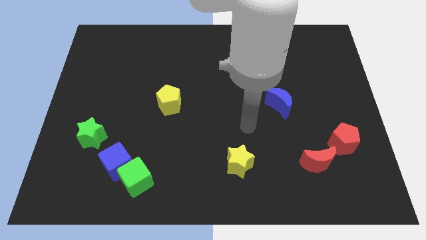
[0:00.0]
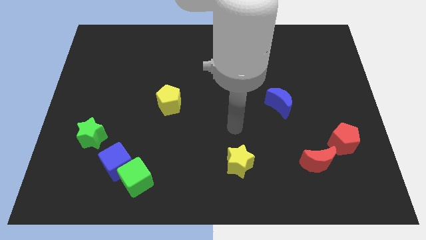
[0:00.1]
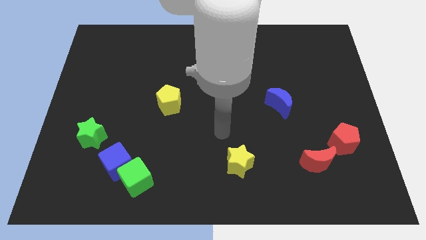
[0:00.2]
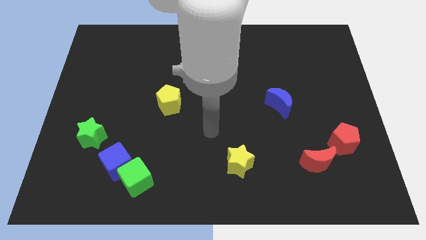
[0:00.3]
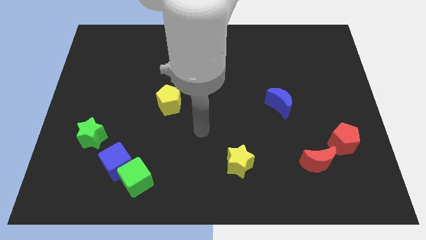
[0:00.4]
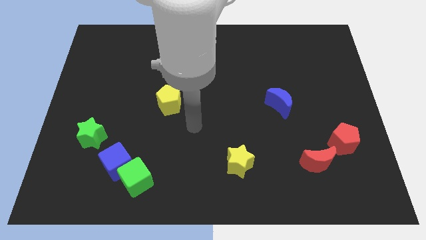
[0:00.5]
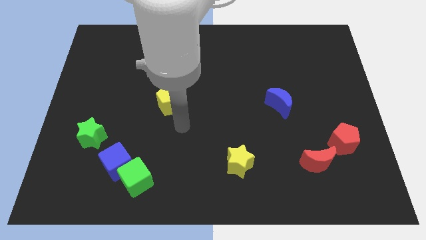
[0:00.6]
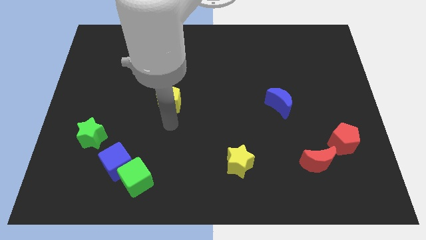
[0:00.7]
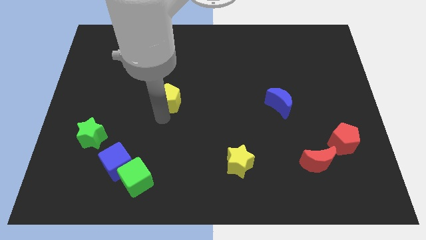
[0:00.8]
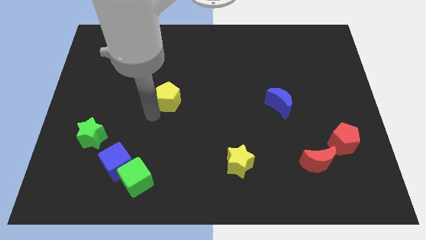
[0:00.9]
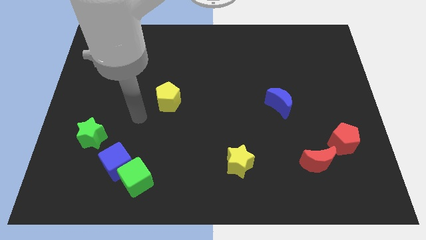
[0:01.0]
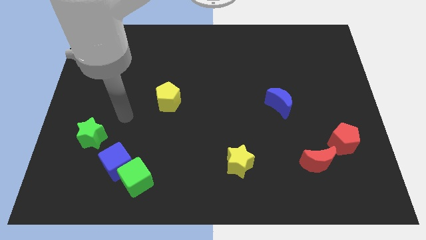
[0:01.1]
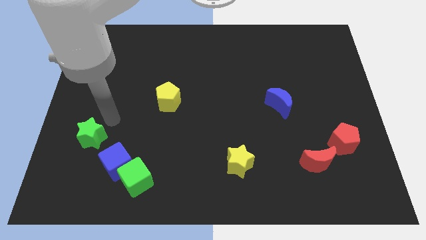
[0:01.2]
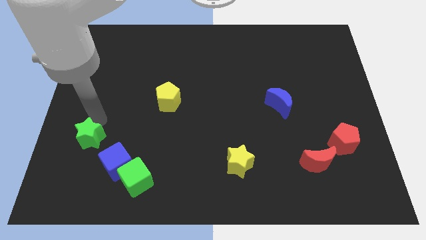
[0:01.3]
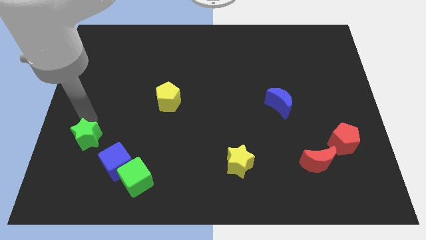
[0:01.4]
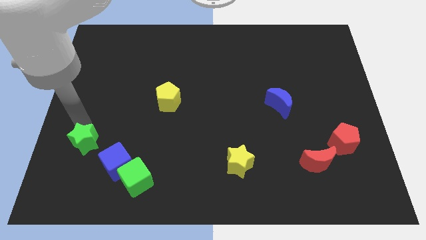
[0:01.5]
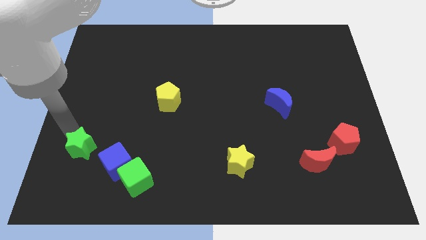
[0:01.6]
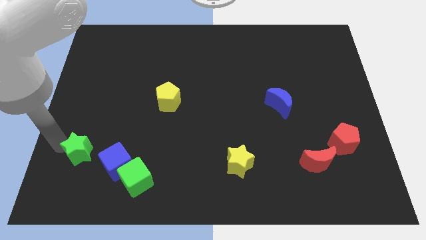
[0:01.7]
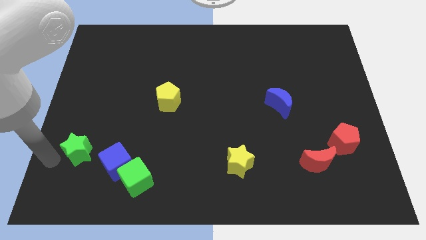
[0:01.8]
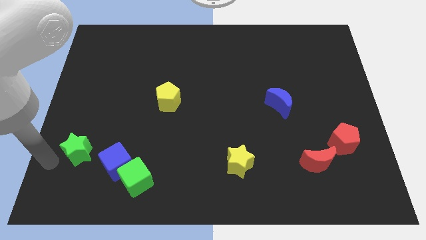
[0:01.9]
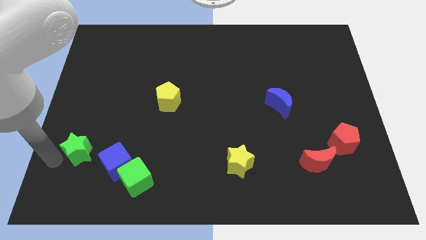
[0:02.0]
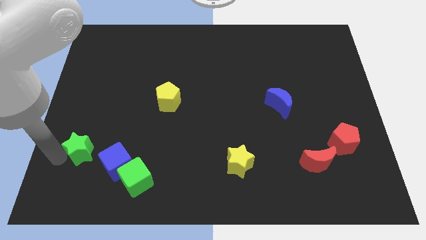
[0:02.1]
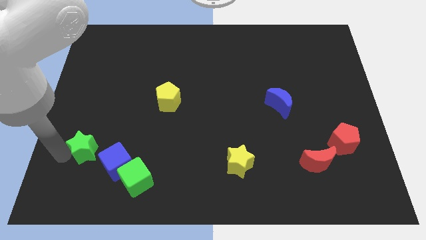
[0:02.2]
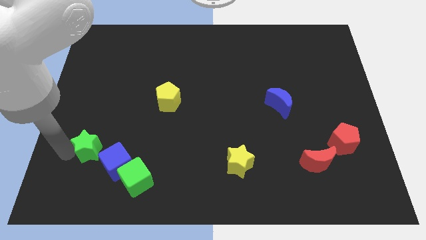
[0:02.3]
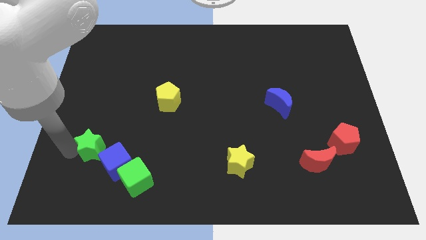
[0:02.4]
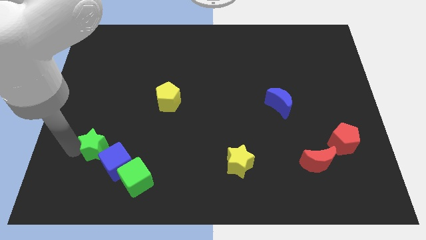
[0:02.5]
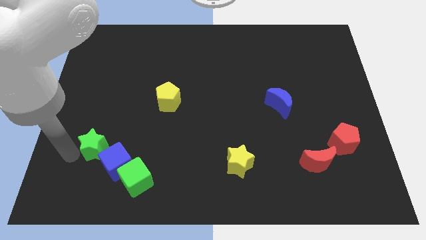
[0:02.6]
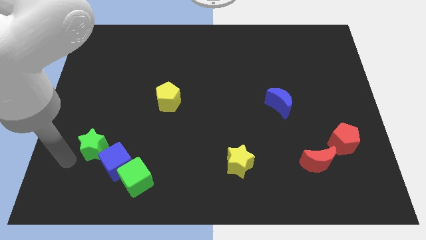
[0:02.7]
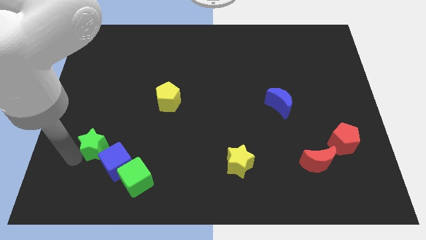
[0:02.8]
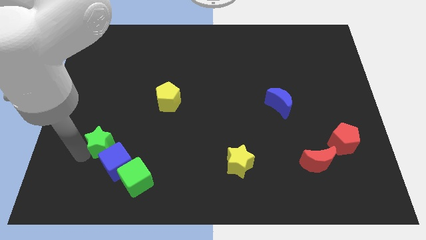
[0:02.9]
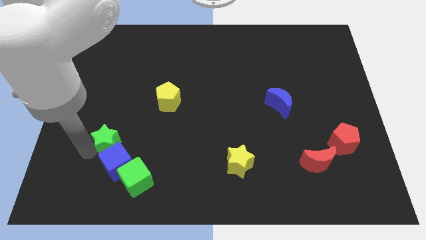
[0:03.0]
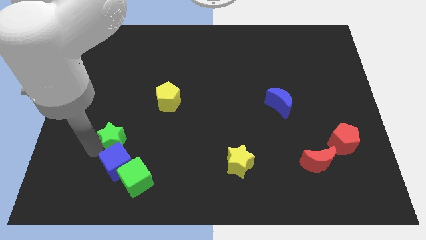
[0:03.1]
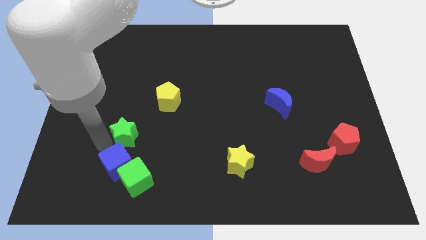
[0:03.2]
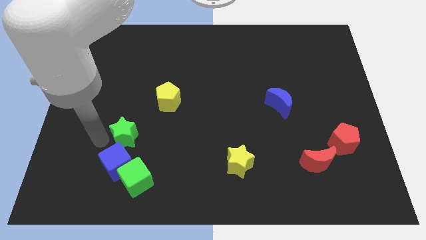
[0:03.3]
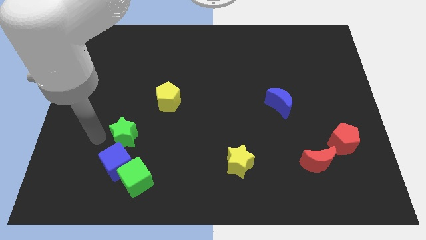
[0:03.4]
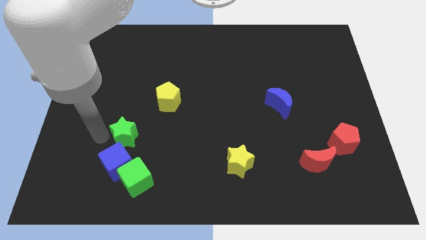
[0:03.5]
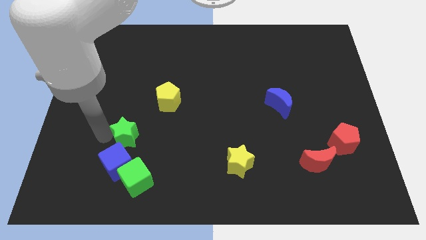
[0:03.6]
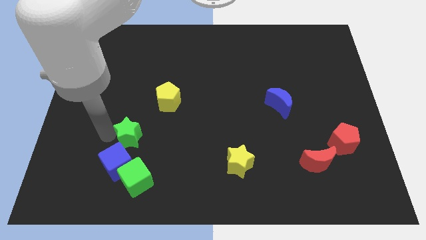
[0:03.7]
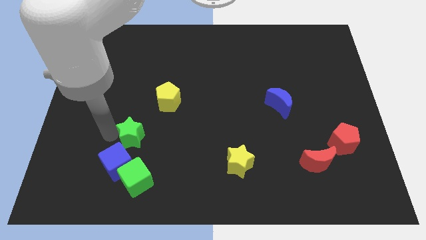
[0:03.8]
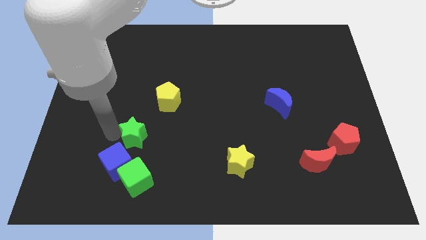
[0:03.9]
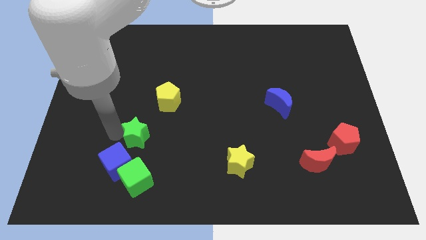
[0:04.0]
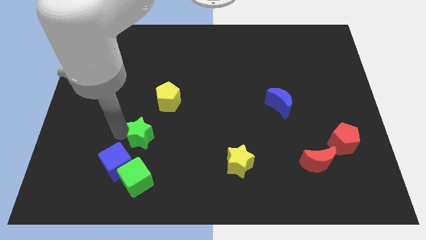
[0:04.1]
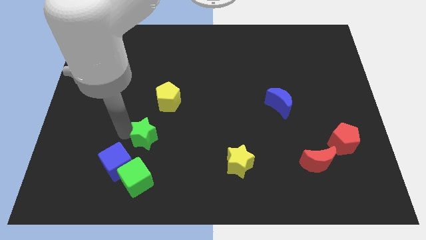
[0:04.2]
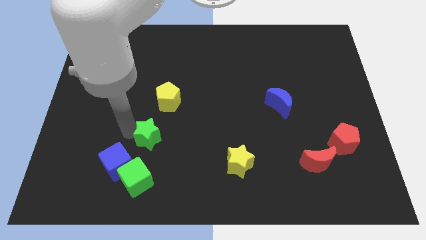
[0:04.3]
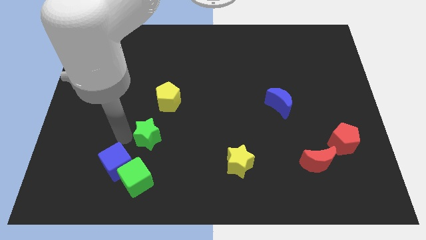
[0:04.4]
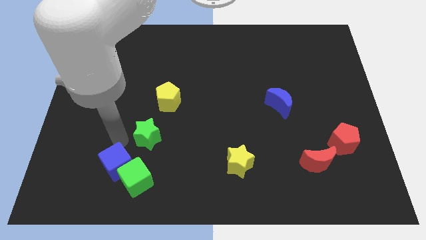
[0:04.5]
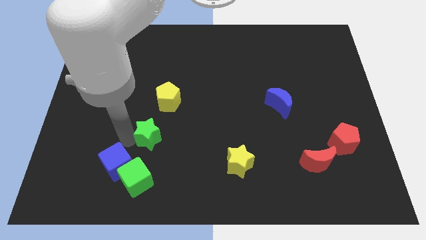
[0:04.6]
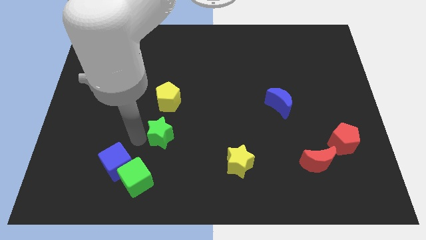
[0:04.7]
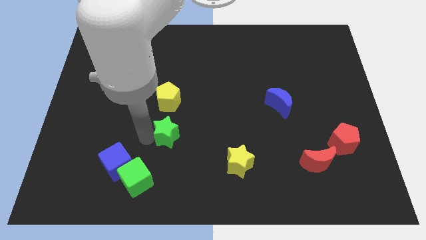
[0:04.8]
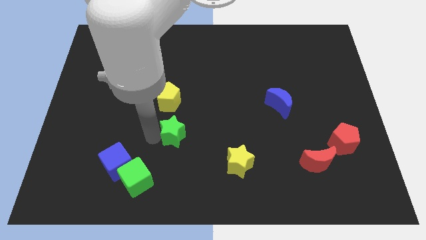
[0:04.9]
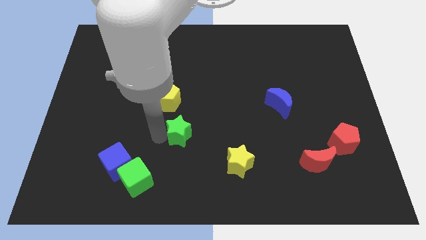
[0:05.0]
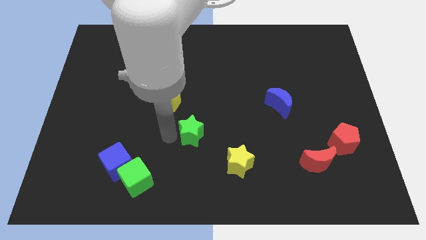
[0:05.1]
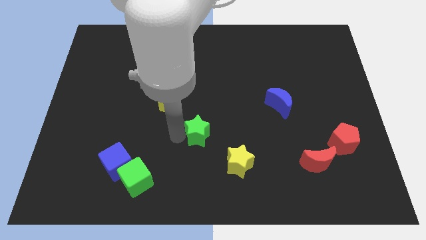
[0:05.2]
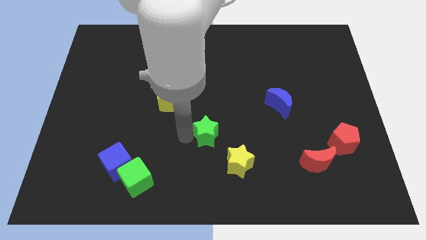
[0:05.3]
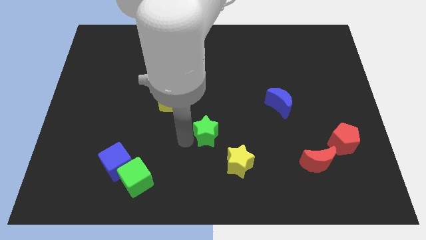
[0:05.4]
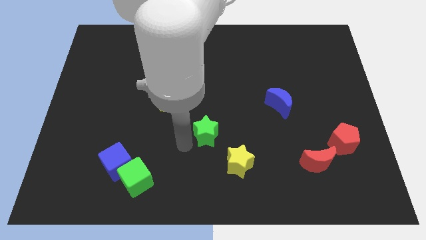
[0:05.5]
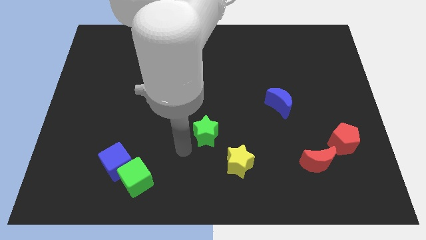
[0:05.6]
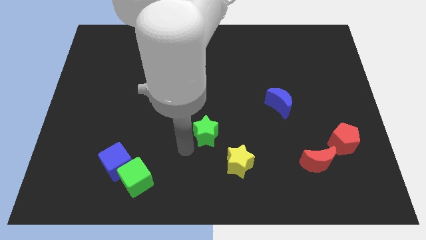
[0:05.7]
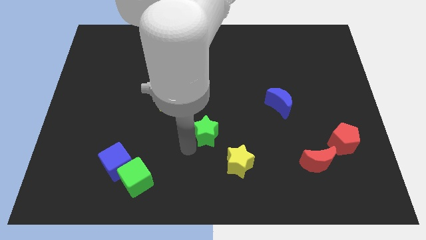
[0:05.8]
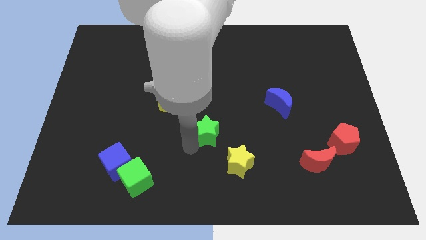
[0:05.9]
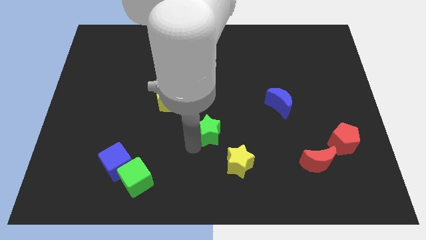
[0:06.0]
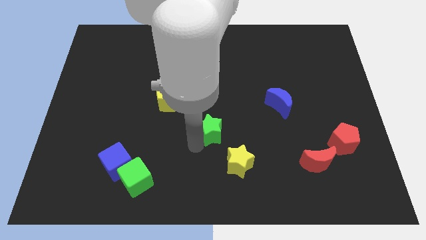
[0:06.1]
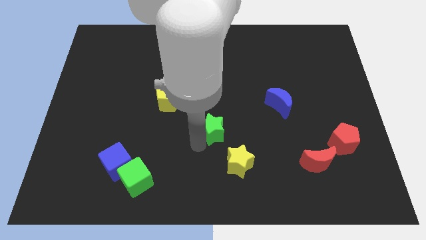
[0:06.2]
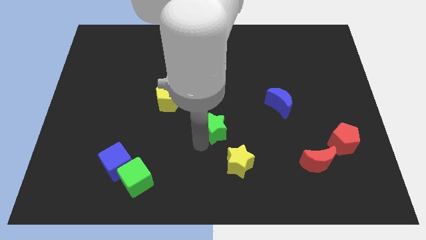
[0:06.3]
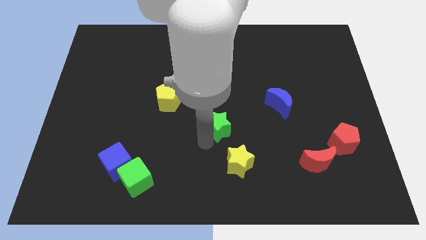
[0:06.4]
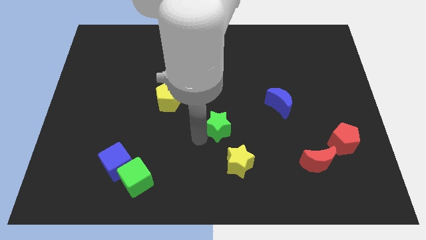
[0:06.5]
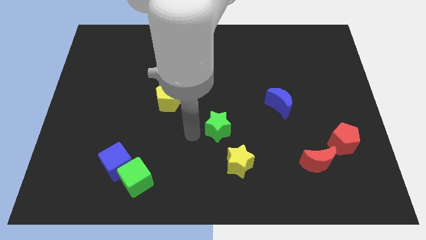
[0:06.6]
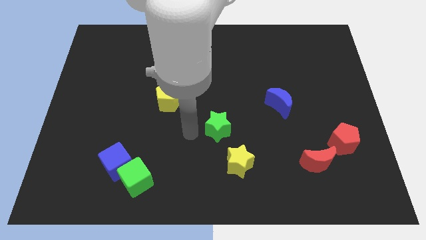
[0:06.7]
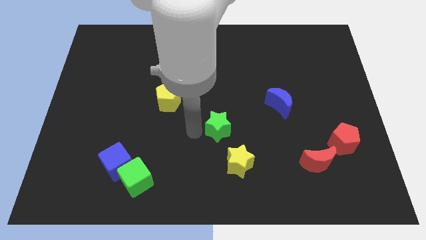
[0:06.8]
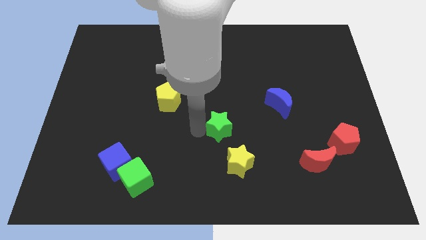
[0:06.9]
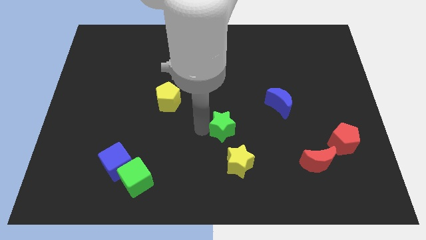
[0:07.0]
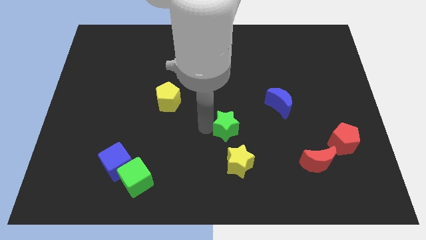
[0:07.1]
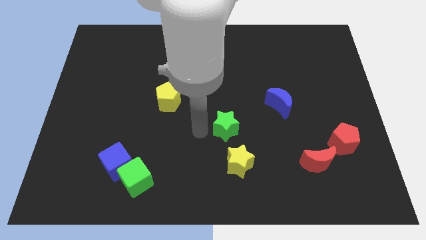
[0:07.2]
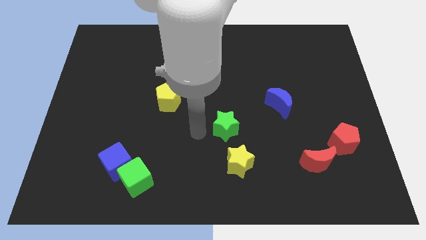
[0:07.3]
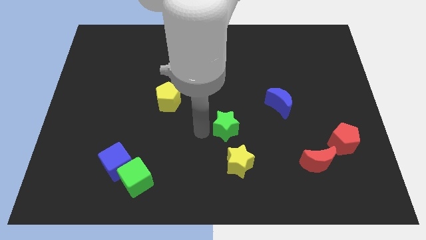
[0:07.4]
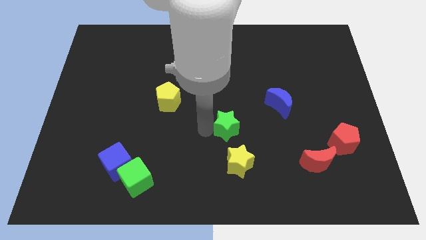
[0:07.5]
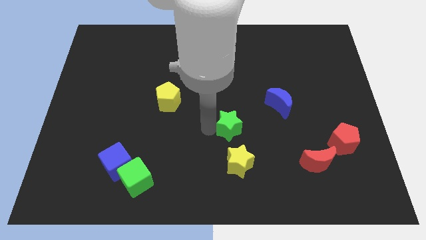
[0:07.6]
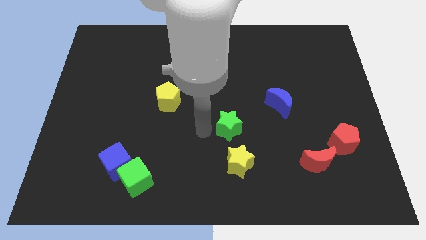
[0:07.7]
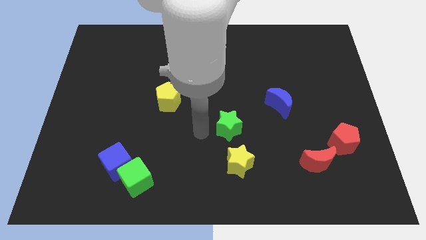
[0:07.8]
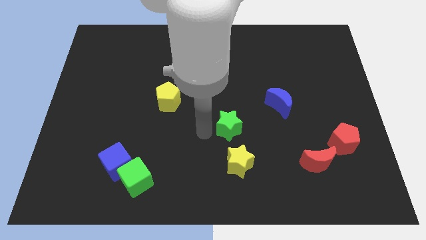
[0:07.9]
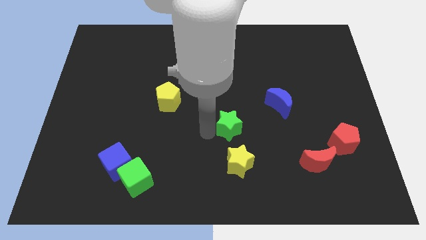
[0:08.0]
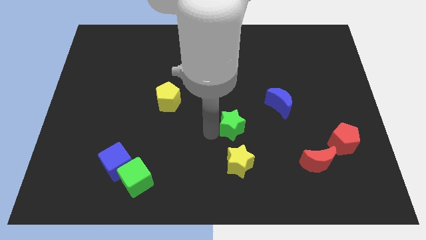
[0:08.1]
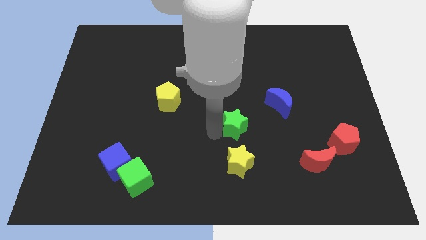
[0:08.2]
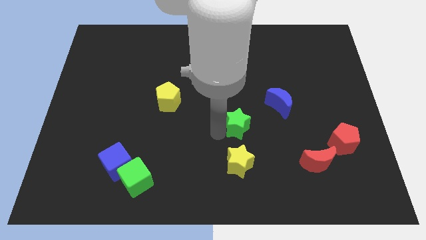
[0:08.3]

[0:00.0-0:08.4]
push the green star to the bottom left of the blue moon
